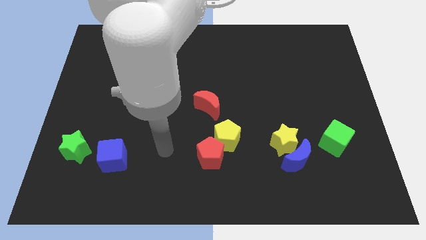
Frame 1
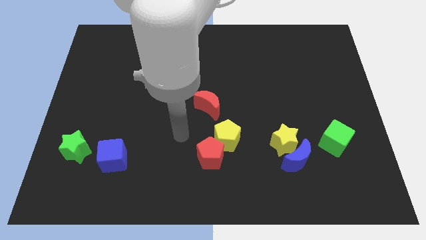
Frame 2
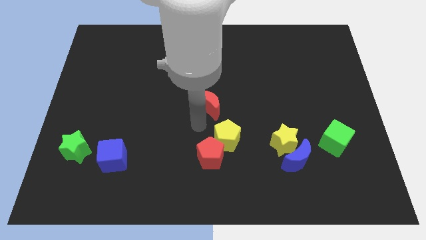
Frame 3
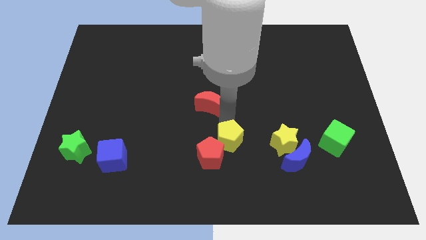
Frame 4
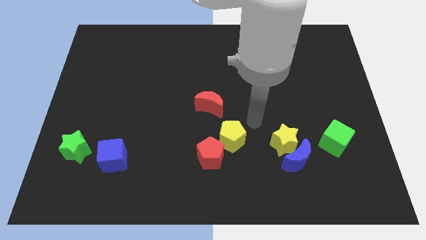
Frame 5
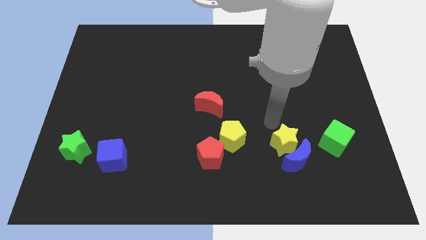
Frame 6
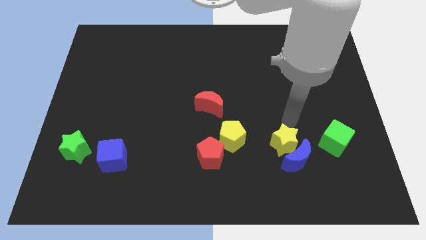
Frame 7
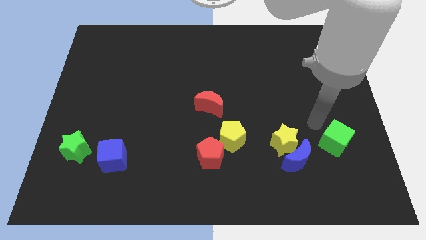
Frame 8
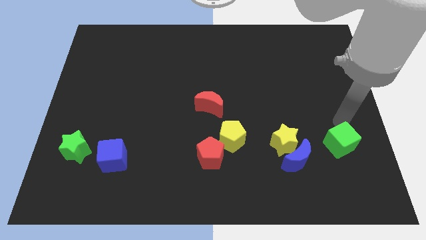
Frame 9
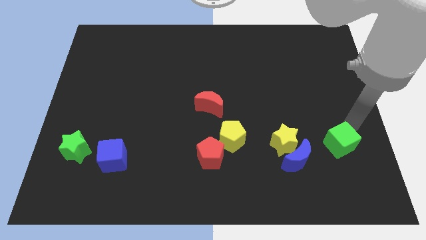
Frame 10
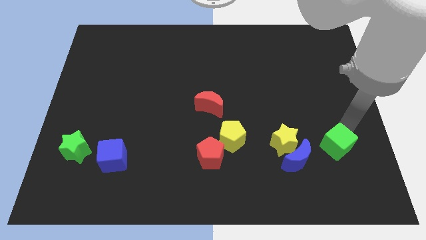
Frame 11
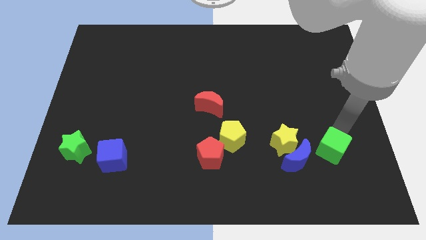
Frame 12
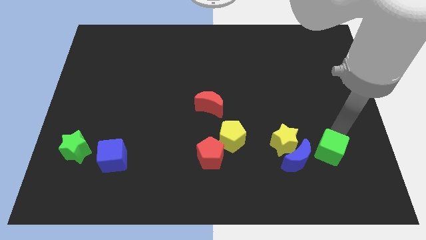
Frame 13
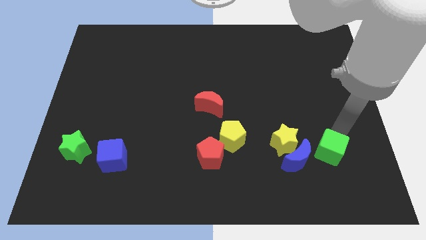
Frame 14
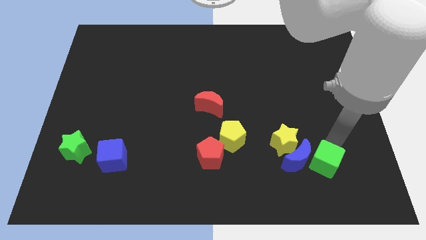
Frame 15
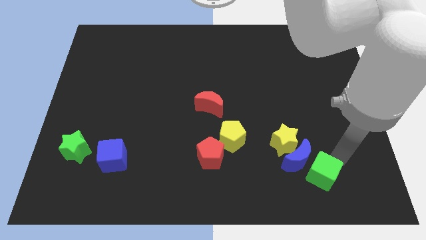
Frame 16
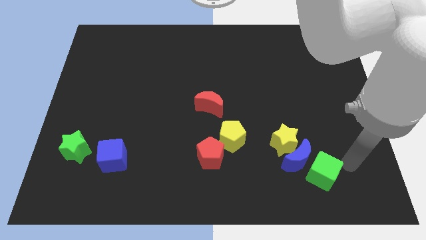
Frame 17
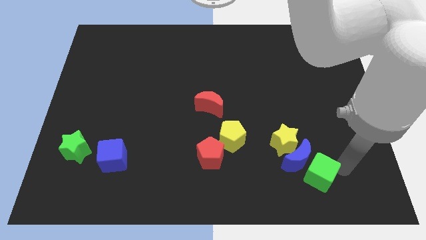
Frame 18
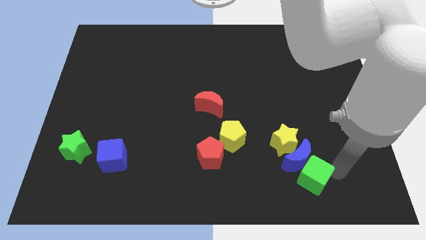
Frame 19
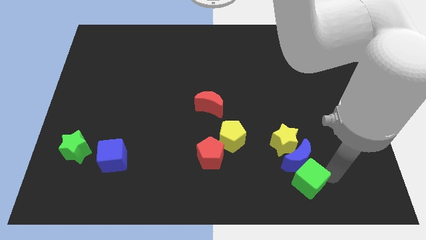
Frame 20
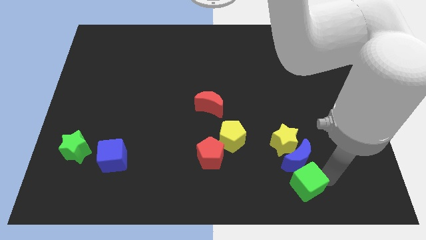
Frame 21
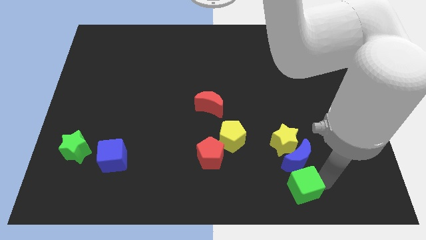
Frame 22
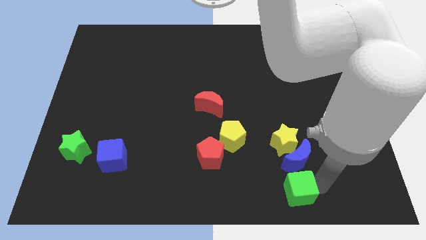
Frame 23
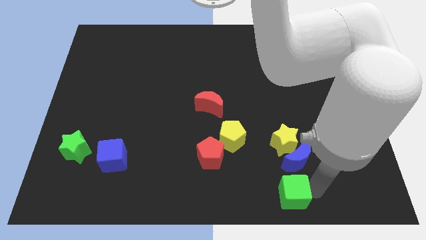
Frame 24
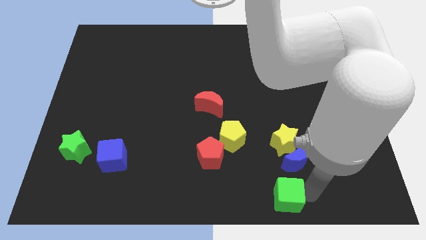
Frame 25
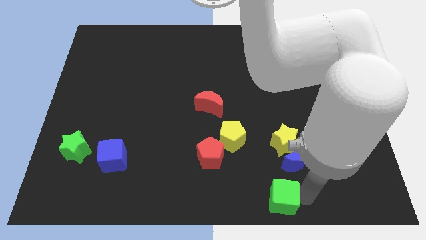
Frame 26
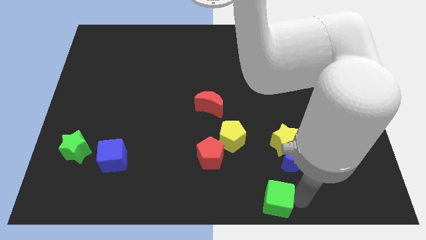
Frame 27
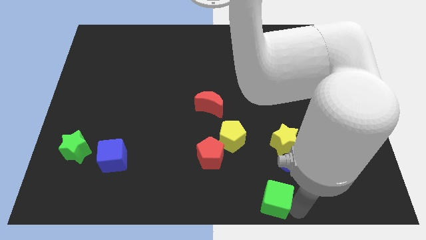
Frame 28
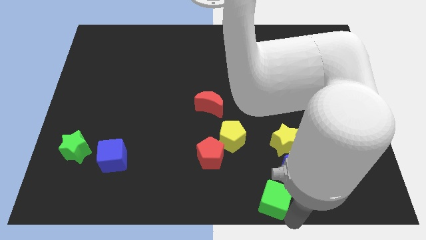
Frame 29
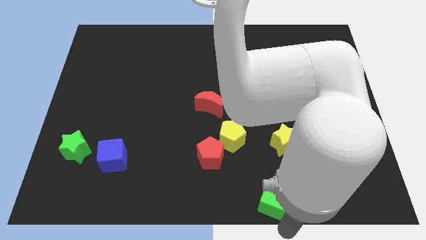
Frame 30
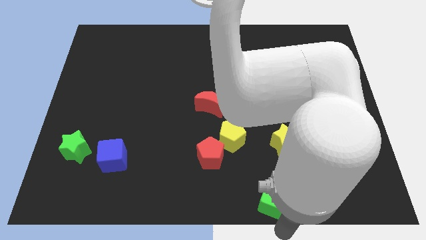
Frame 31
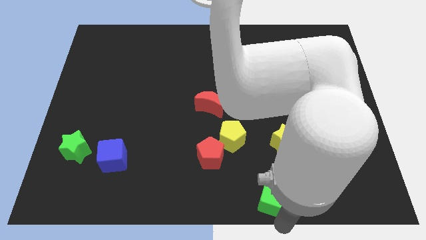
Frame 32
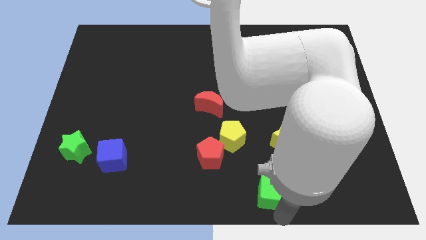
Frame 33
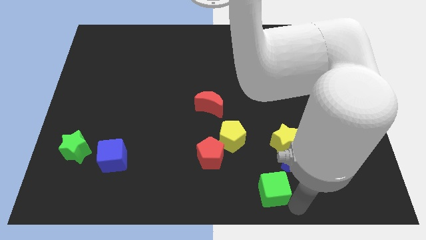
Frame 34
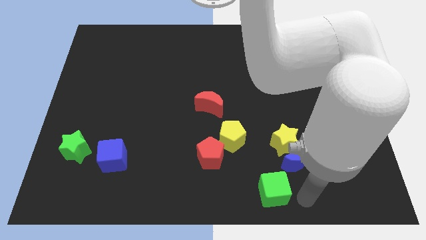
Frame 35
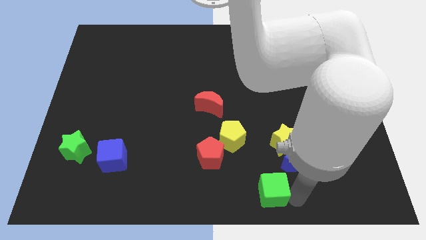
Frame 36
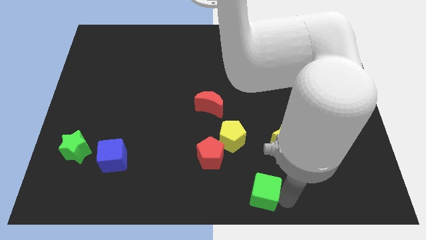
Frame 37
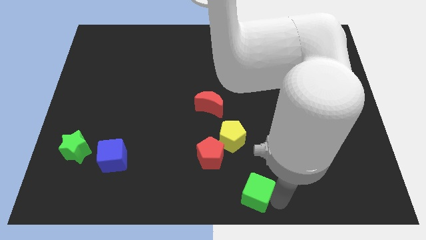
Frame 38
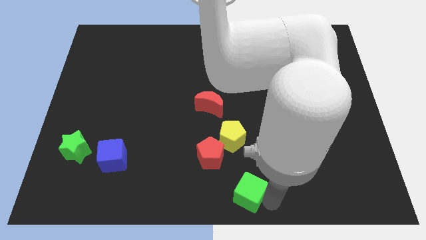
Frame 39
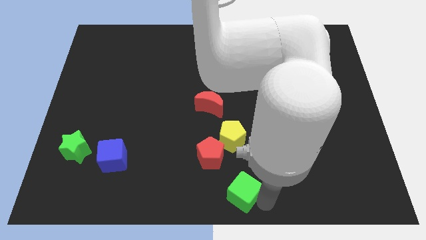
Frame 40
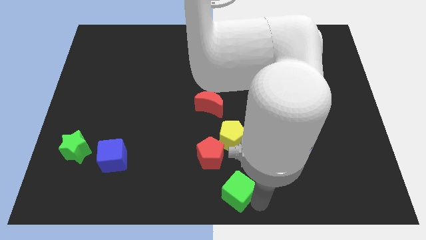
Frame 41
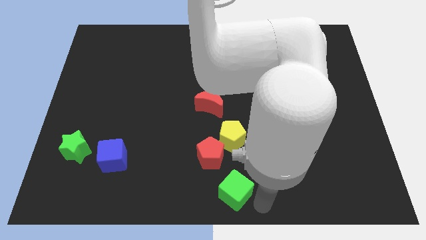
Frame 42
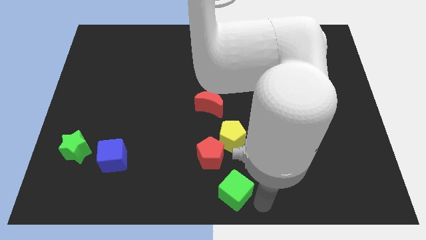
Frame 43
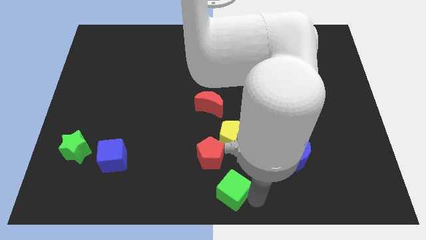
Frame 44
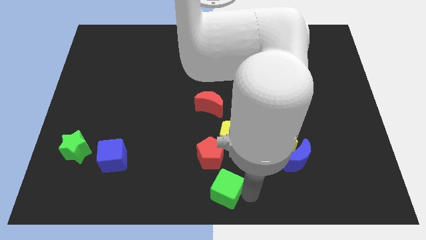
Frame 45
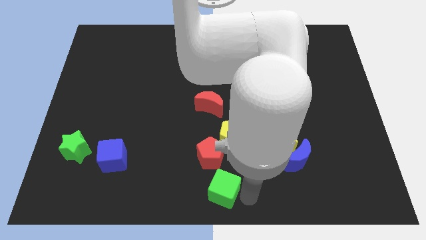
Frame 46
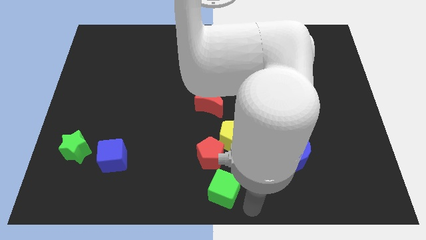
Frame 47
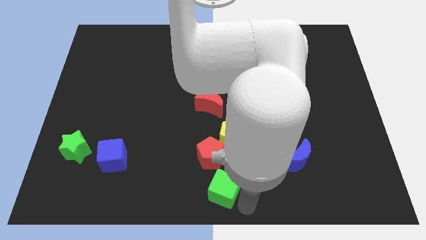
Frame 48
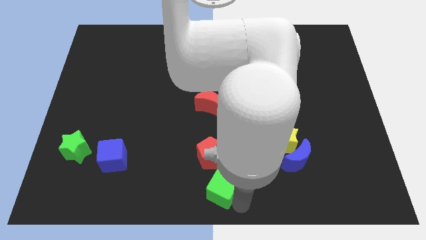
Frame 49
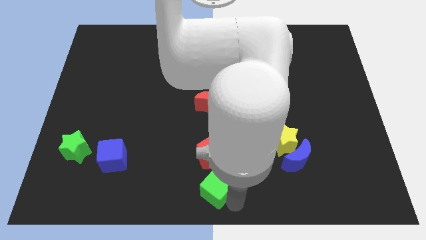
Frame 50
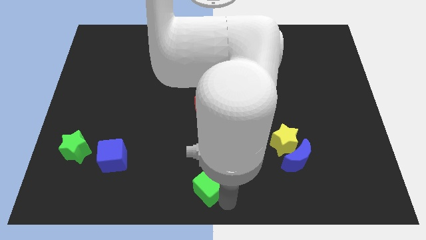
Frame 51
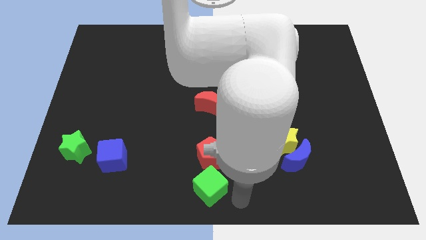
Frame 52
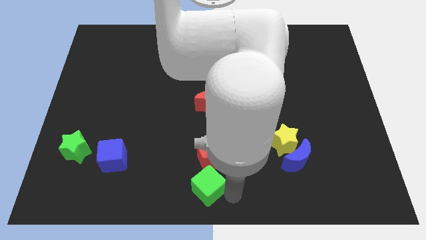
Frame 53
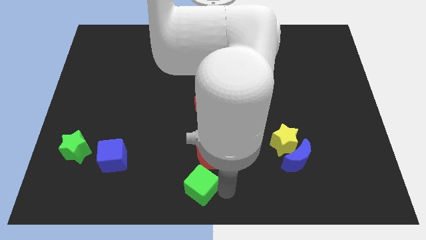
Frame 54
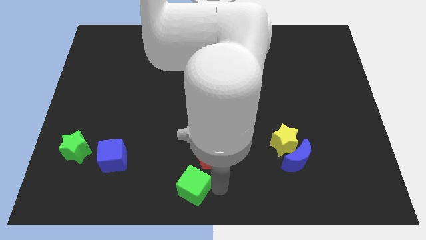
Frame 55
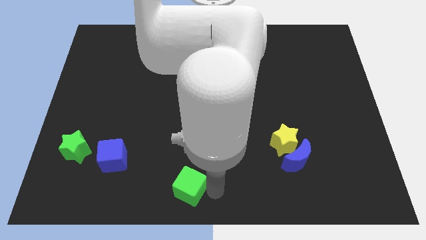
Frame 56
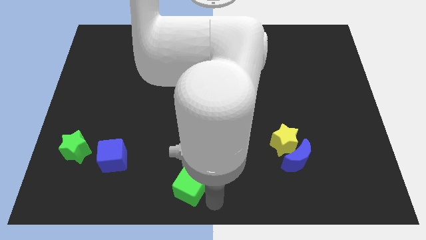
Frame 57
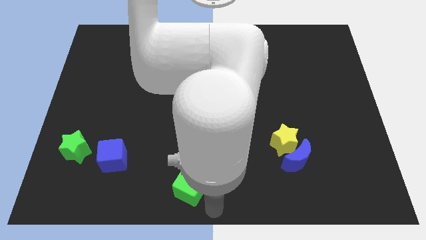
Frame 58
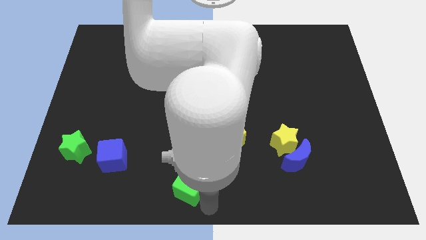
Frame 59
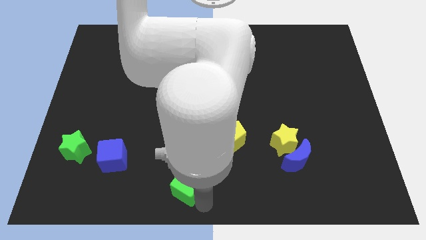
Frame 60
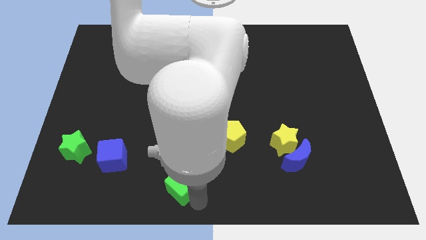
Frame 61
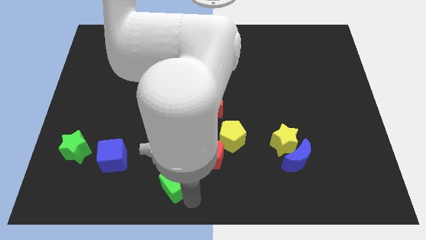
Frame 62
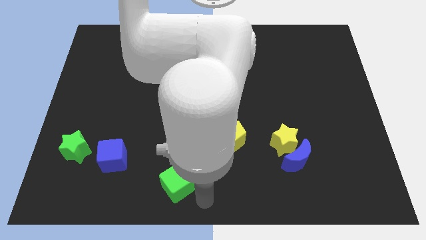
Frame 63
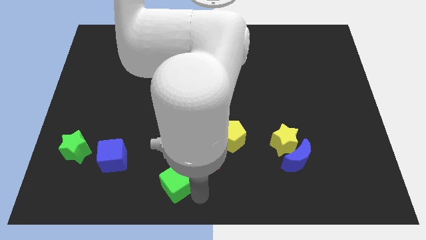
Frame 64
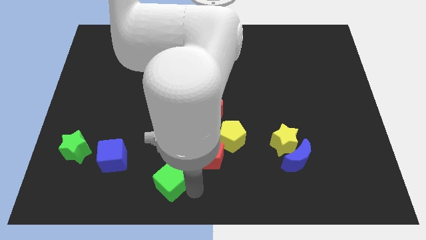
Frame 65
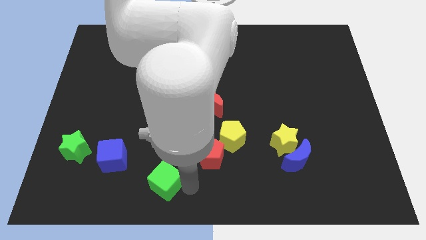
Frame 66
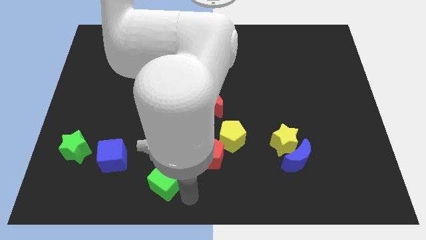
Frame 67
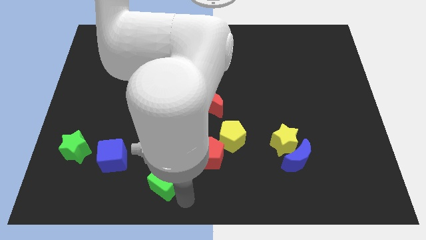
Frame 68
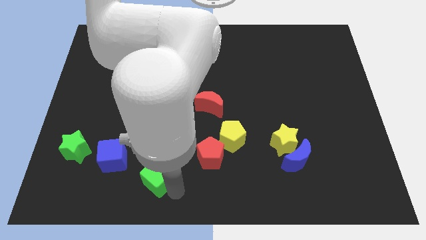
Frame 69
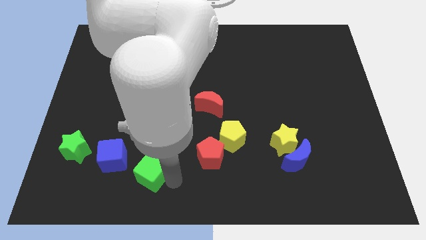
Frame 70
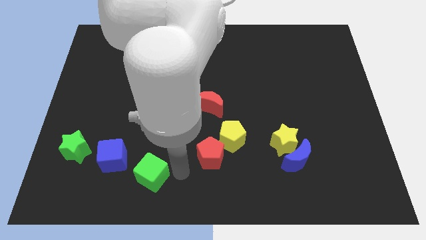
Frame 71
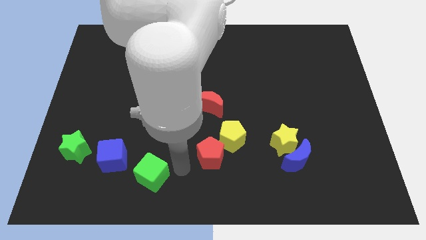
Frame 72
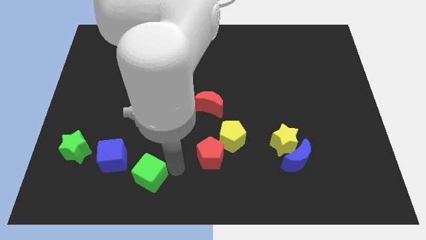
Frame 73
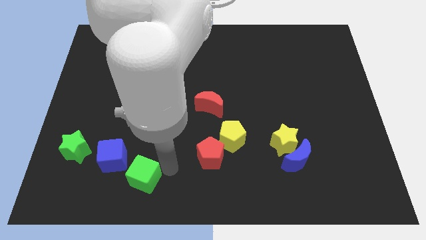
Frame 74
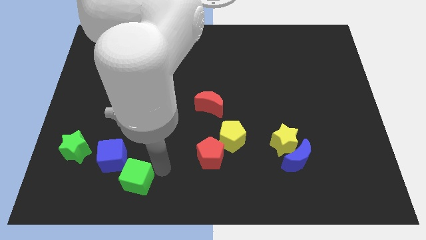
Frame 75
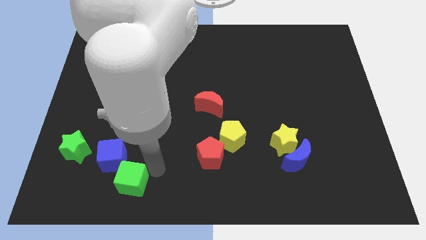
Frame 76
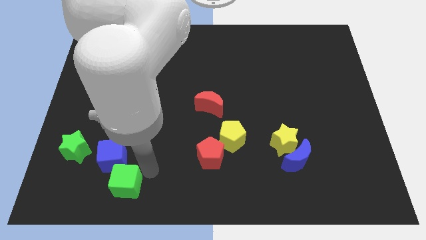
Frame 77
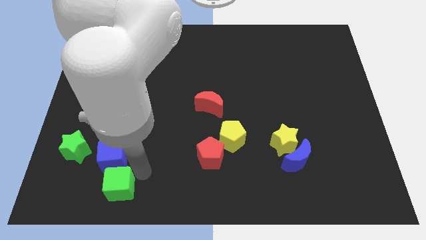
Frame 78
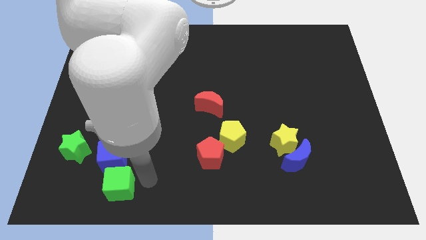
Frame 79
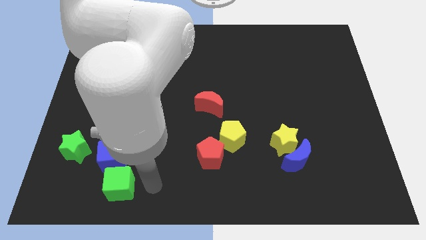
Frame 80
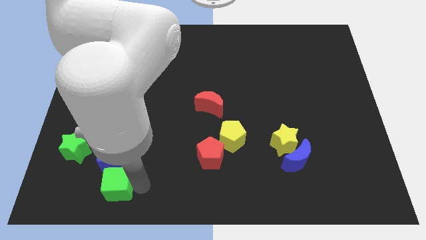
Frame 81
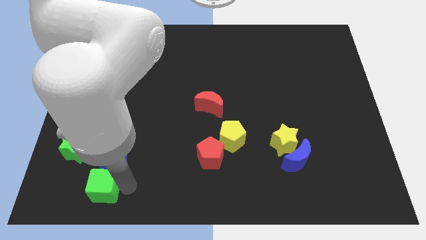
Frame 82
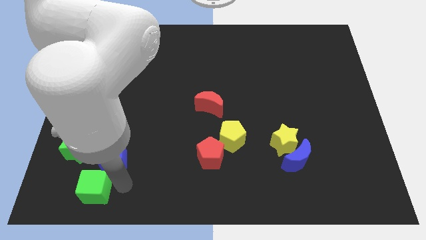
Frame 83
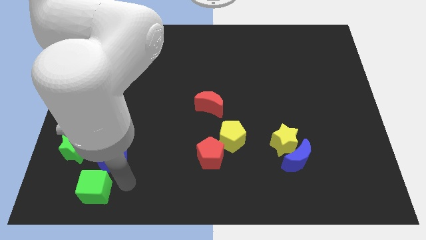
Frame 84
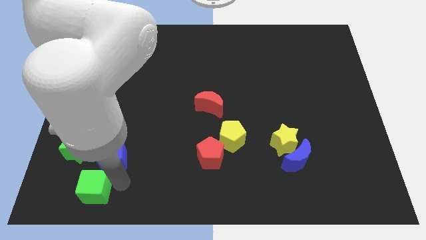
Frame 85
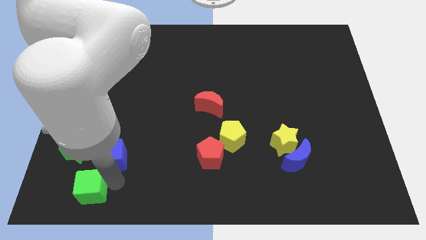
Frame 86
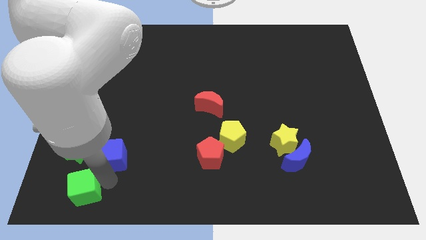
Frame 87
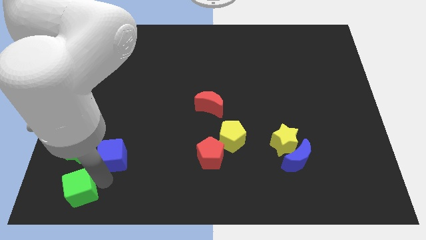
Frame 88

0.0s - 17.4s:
put the green cube to the bottom left
